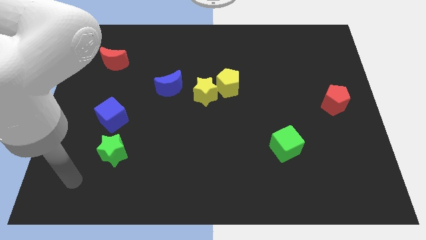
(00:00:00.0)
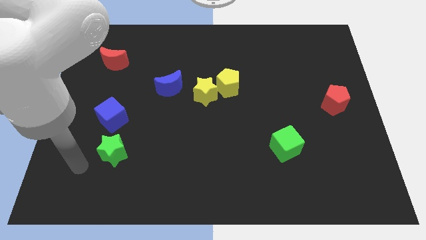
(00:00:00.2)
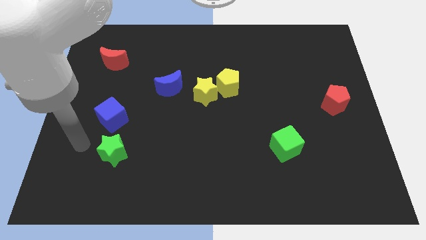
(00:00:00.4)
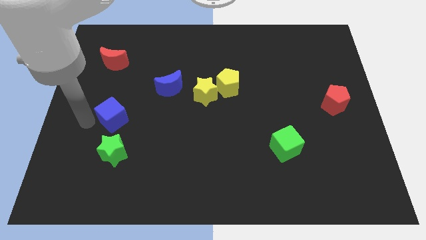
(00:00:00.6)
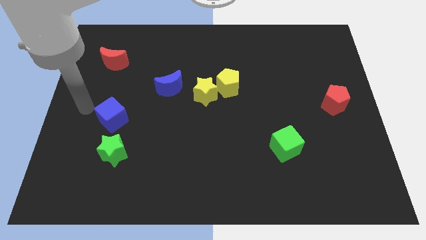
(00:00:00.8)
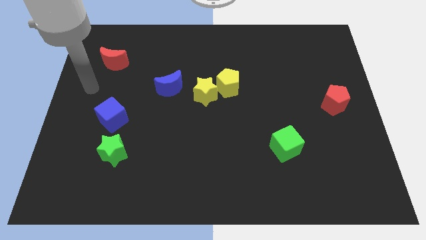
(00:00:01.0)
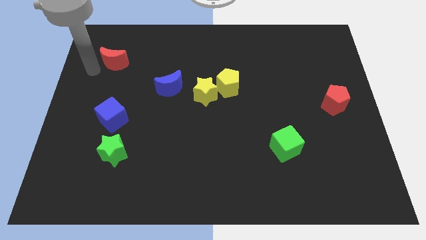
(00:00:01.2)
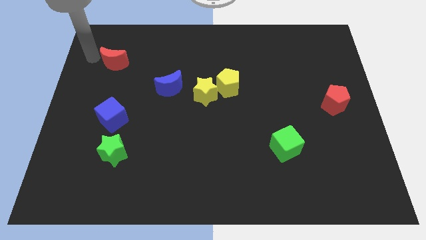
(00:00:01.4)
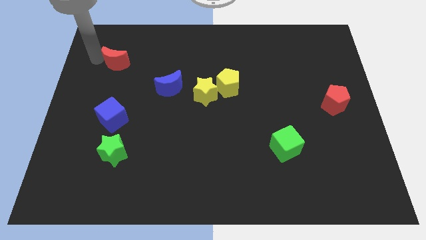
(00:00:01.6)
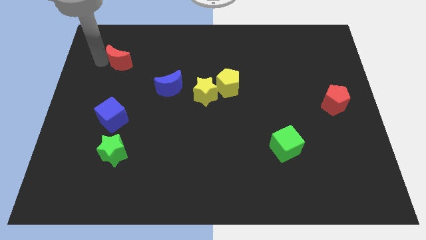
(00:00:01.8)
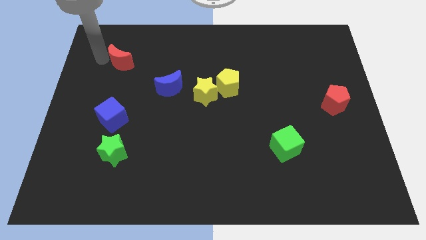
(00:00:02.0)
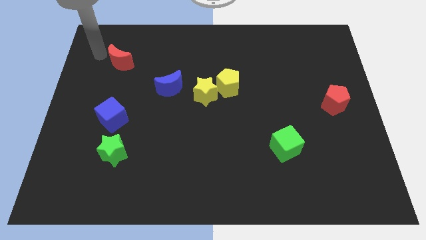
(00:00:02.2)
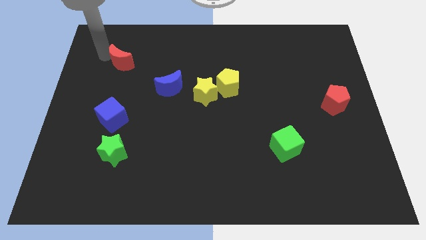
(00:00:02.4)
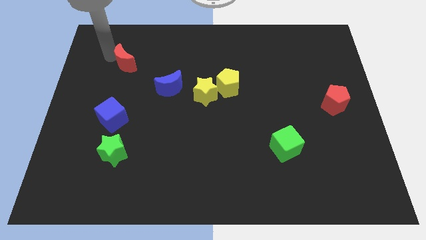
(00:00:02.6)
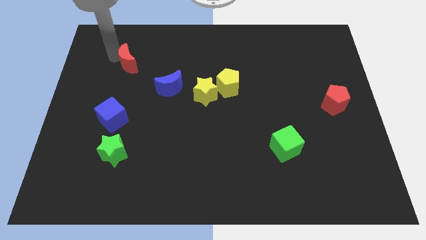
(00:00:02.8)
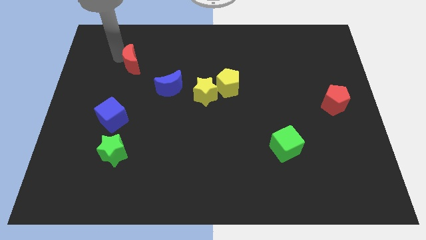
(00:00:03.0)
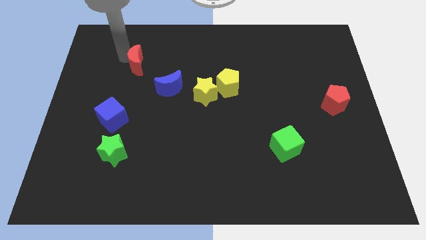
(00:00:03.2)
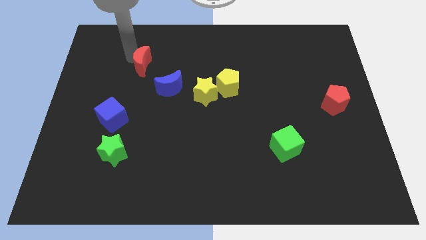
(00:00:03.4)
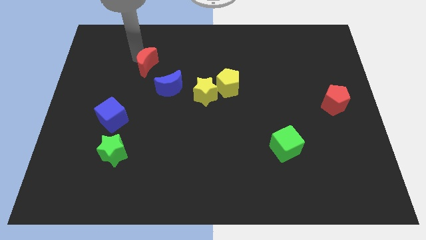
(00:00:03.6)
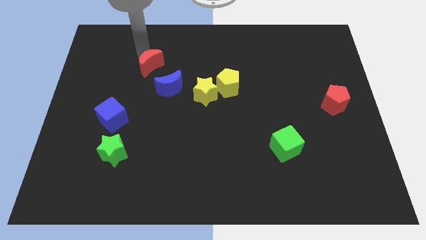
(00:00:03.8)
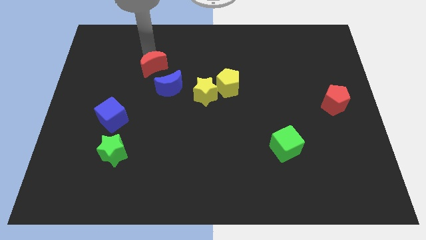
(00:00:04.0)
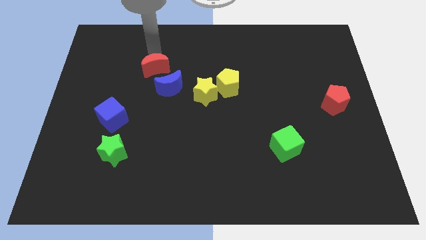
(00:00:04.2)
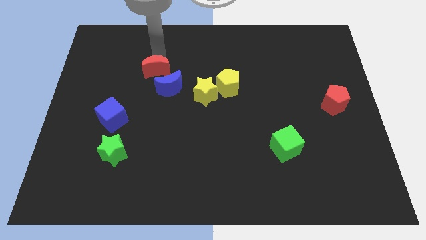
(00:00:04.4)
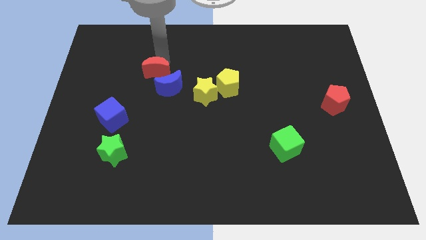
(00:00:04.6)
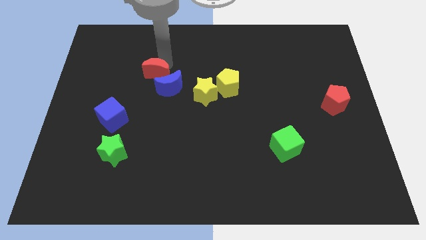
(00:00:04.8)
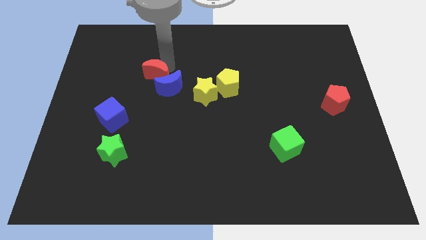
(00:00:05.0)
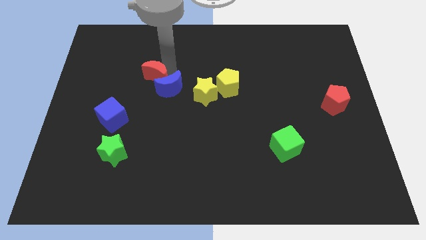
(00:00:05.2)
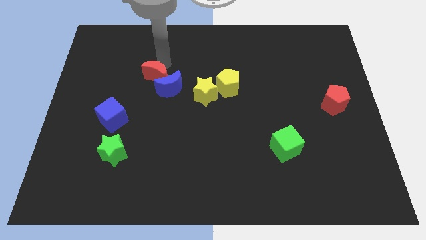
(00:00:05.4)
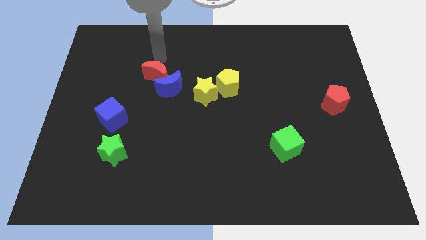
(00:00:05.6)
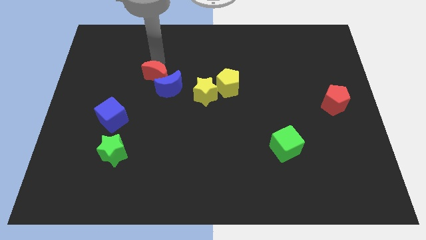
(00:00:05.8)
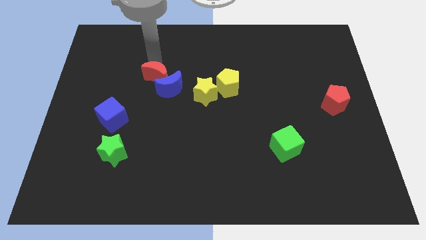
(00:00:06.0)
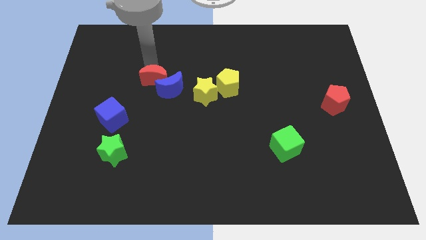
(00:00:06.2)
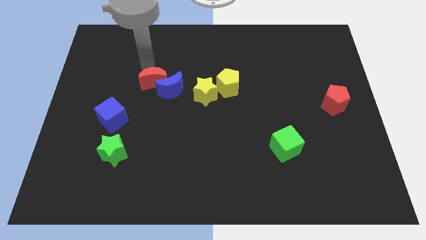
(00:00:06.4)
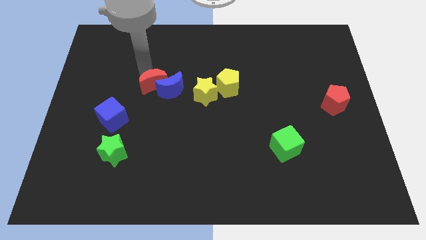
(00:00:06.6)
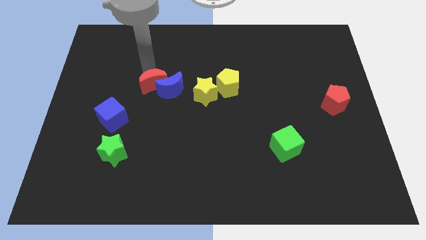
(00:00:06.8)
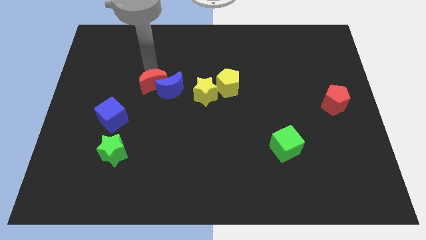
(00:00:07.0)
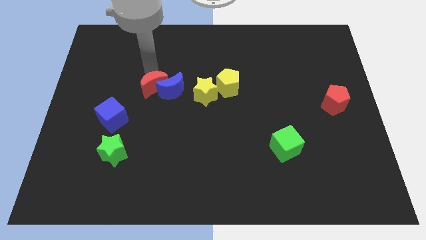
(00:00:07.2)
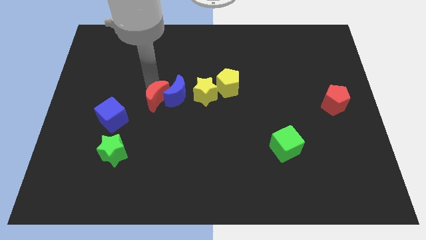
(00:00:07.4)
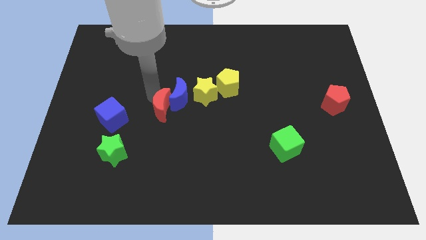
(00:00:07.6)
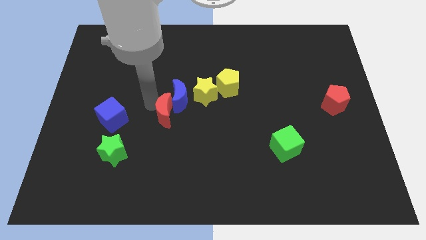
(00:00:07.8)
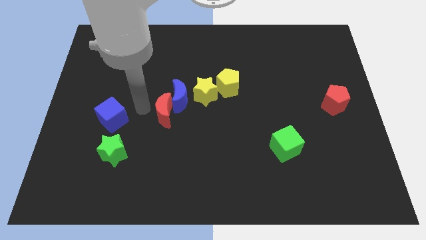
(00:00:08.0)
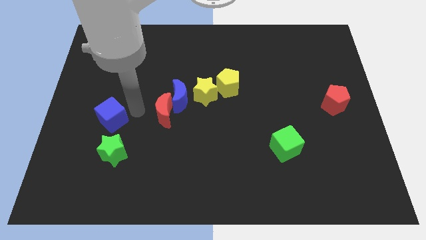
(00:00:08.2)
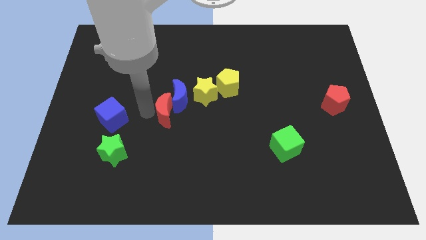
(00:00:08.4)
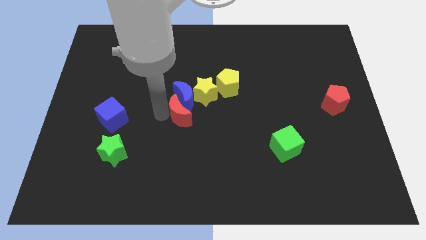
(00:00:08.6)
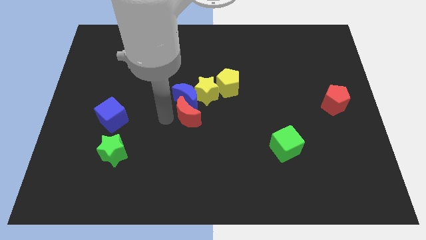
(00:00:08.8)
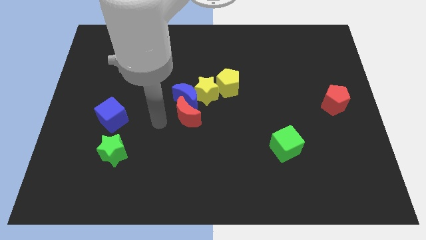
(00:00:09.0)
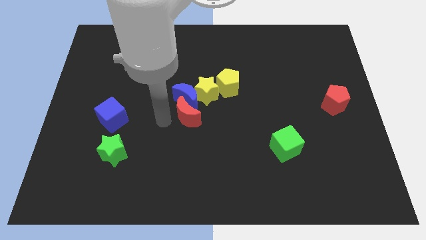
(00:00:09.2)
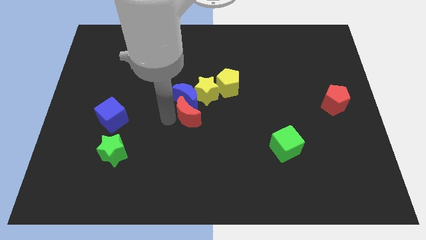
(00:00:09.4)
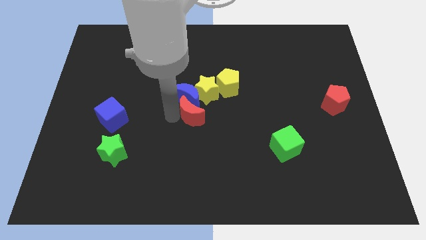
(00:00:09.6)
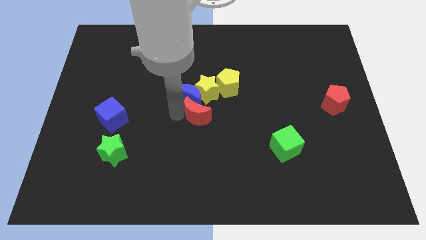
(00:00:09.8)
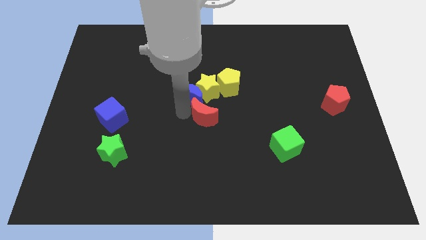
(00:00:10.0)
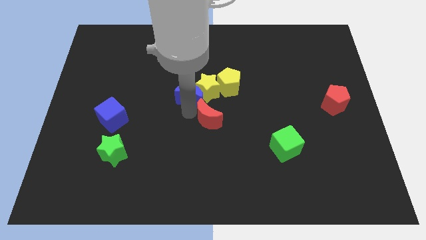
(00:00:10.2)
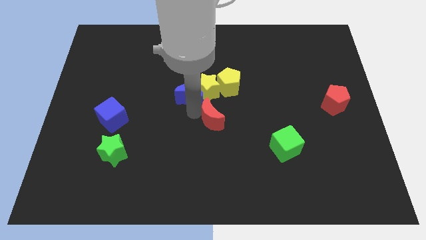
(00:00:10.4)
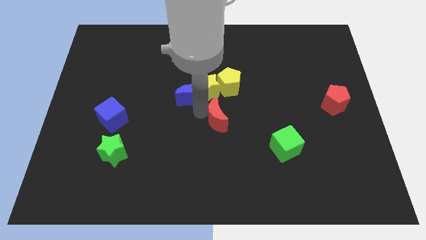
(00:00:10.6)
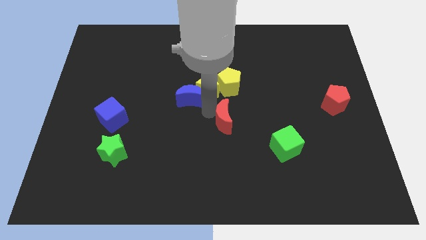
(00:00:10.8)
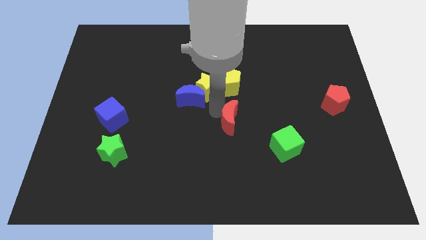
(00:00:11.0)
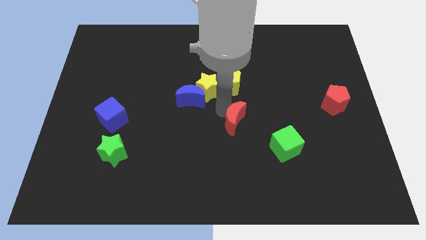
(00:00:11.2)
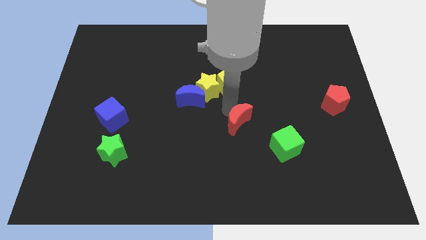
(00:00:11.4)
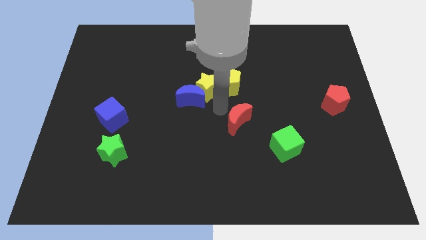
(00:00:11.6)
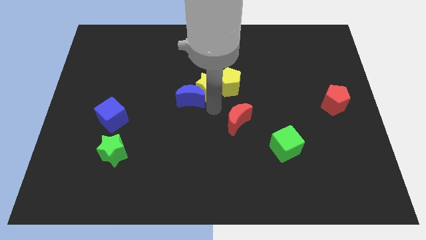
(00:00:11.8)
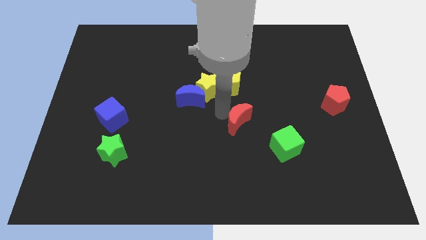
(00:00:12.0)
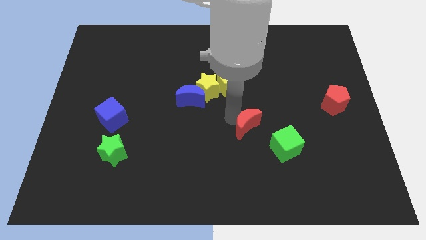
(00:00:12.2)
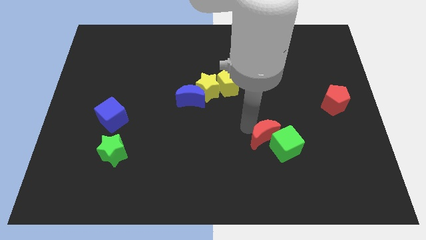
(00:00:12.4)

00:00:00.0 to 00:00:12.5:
move the red moon close to the green cube
